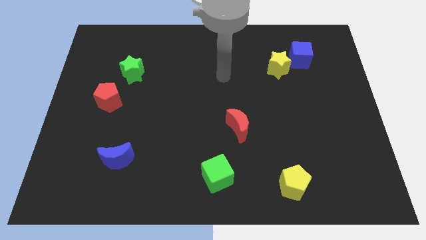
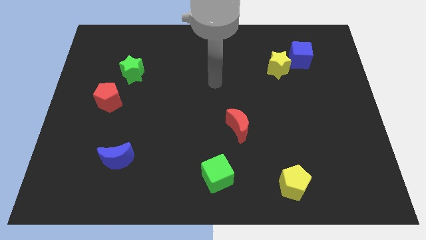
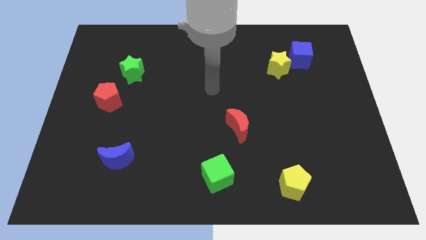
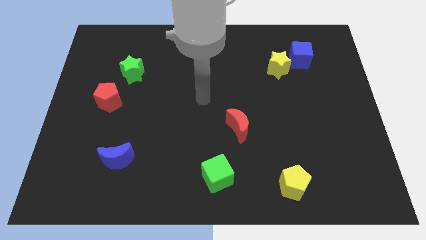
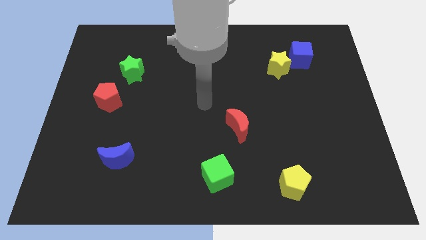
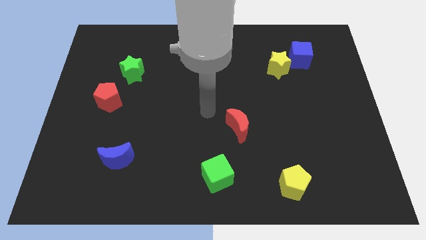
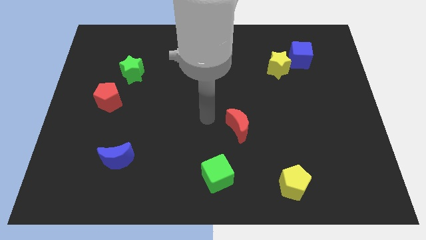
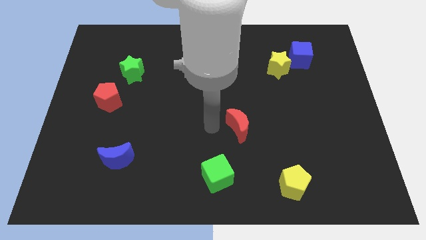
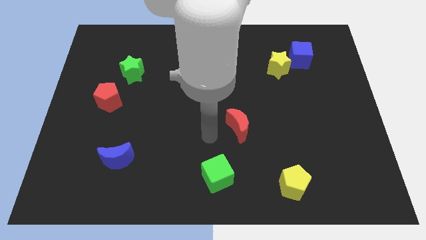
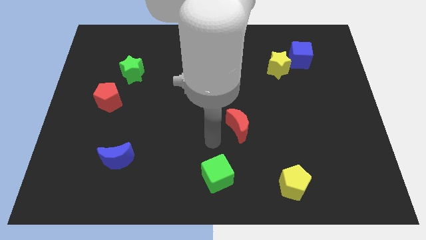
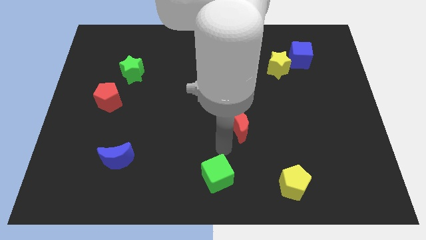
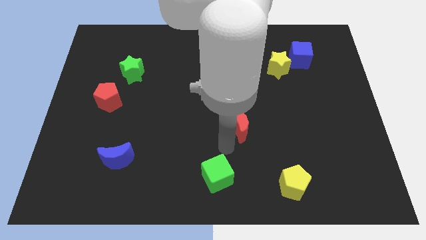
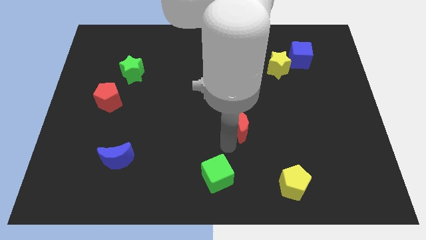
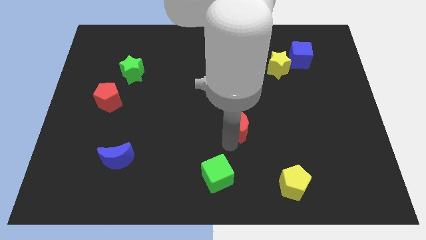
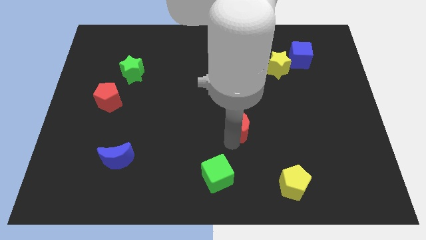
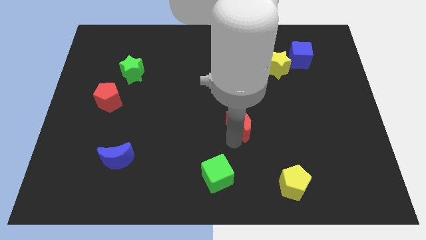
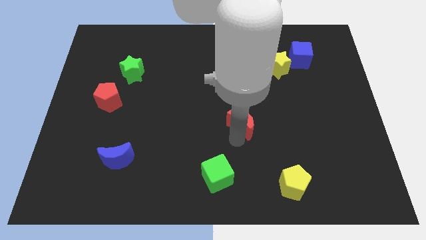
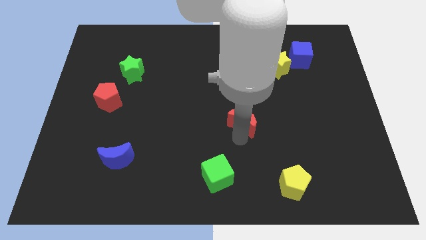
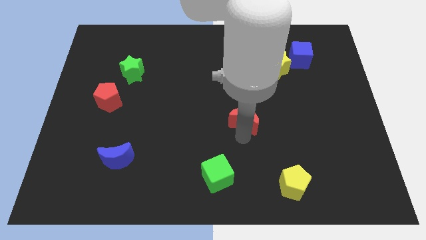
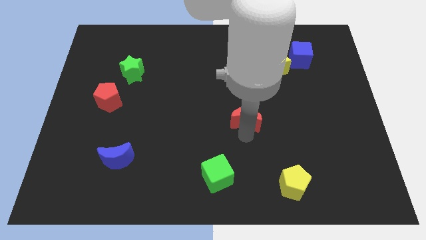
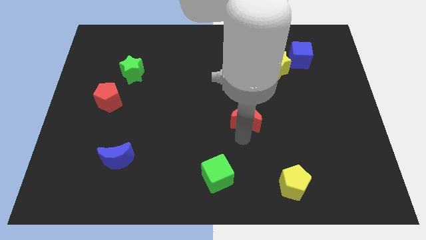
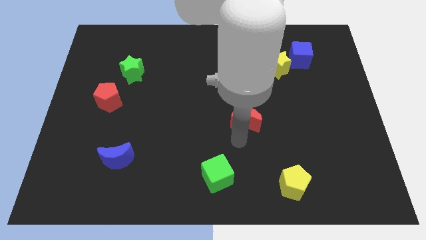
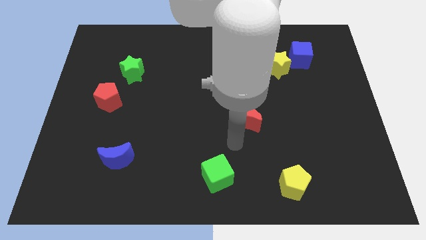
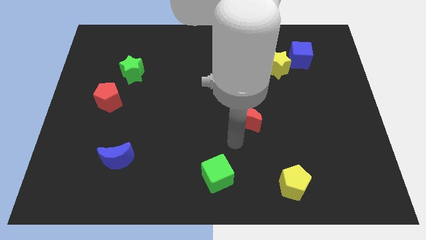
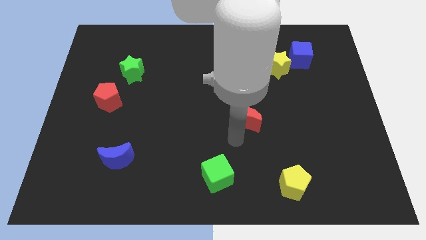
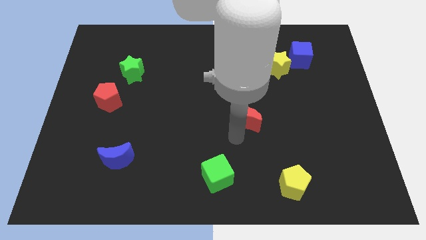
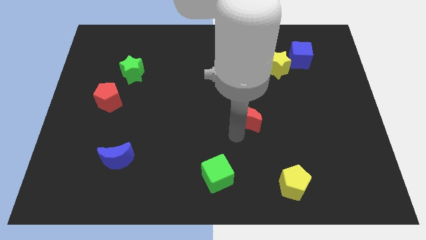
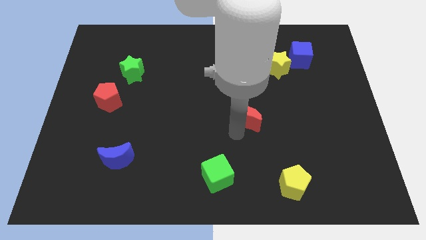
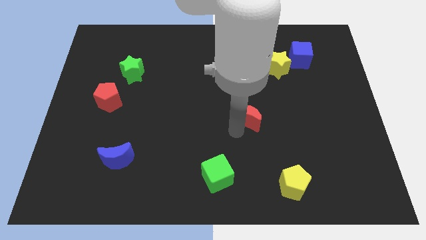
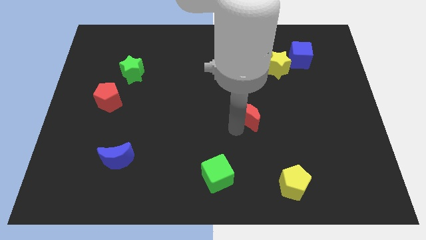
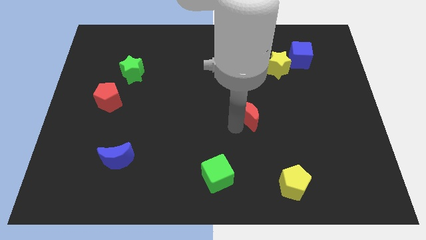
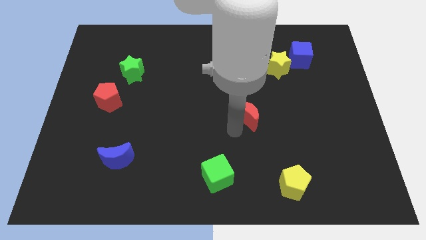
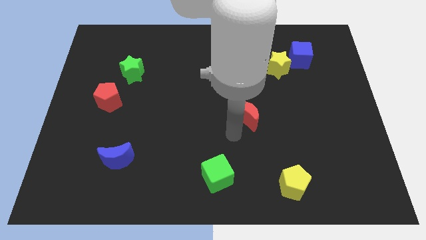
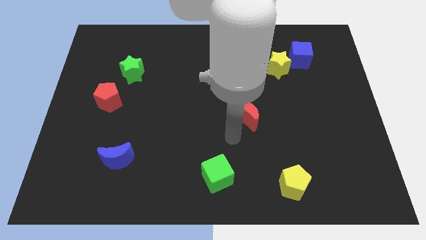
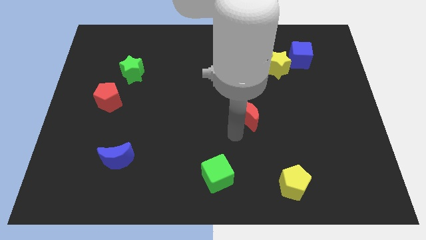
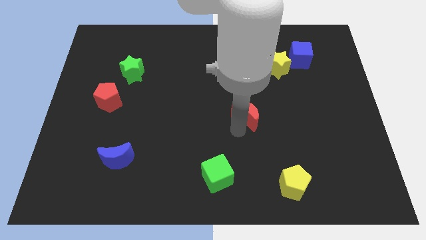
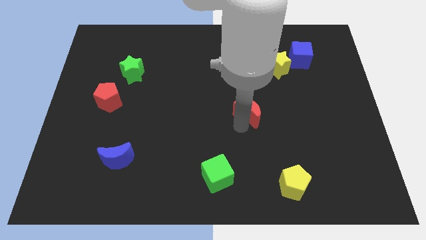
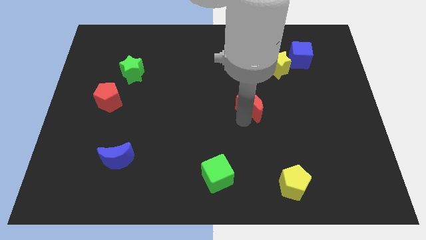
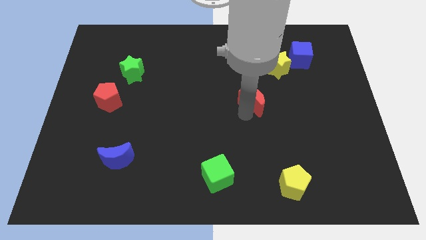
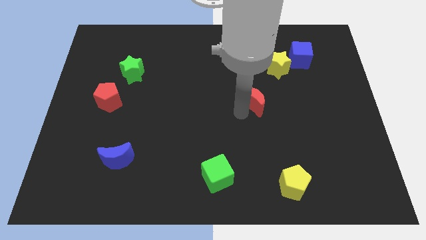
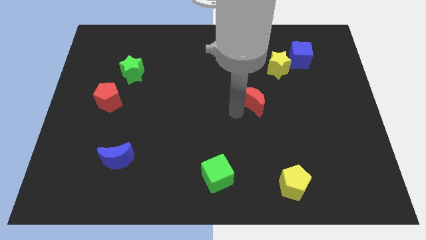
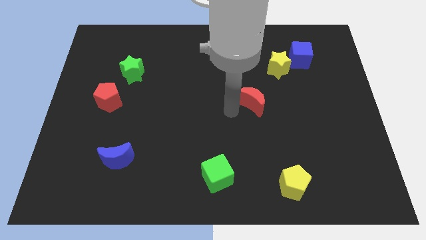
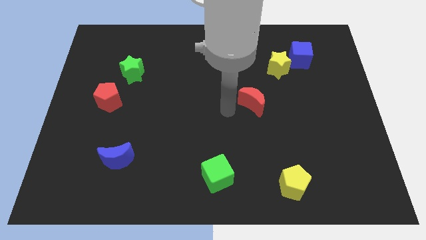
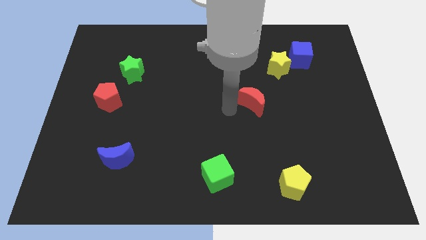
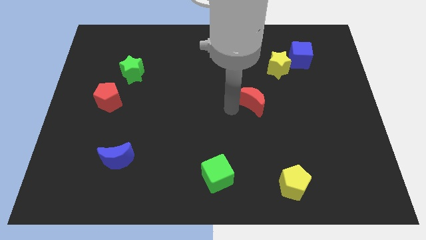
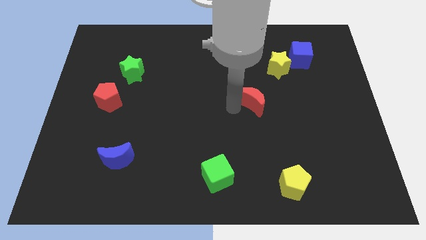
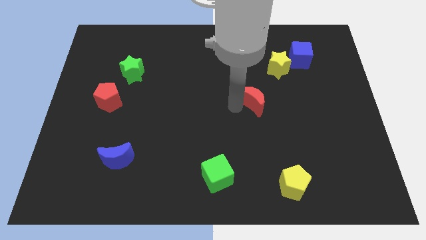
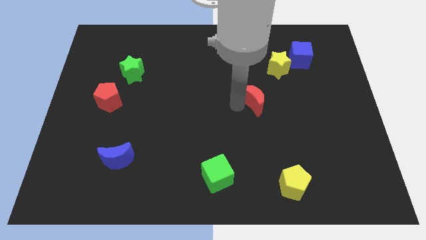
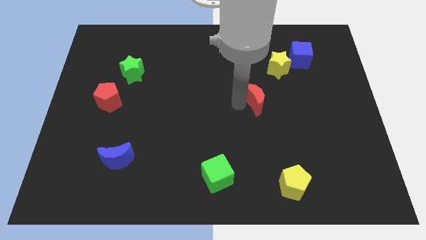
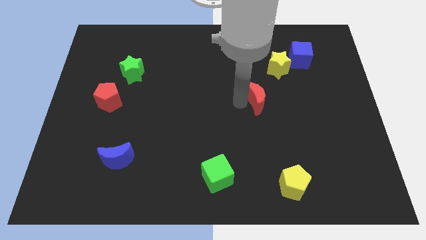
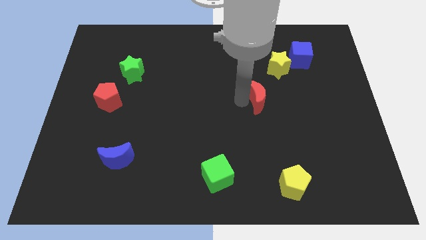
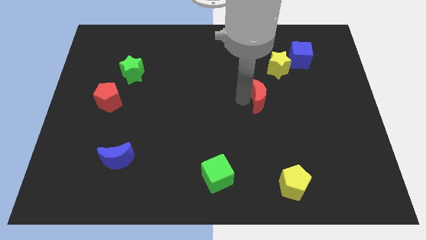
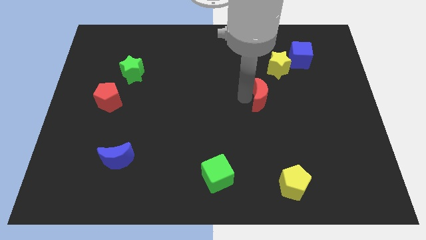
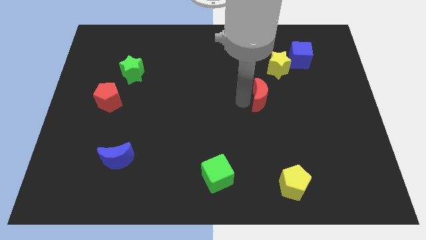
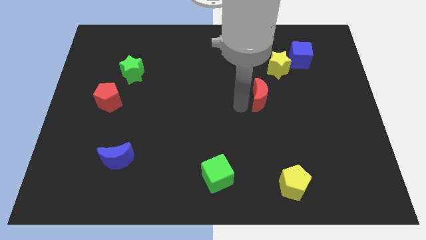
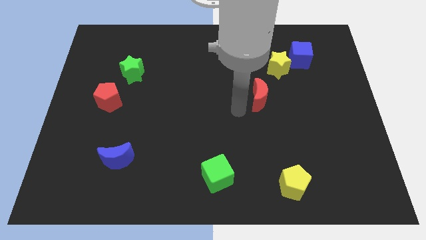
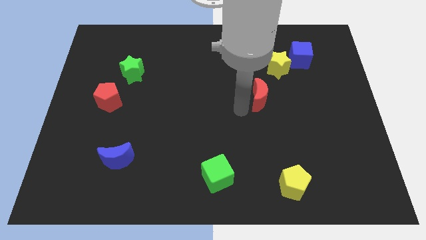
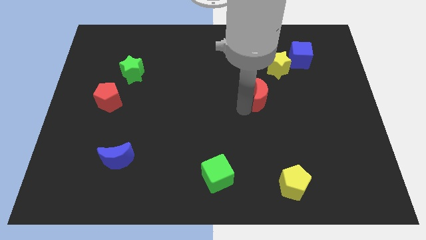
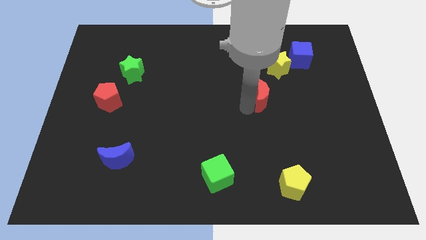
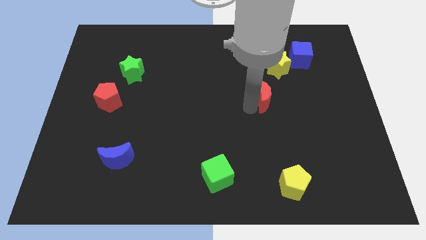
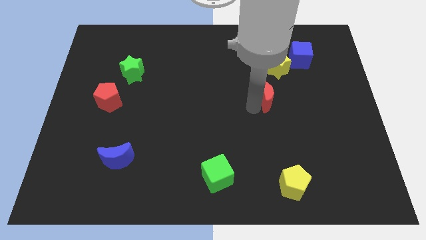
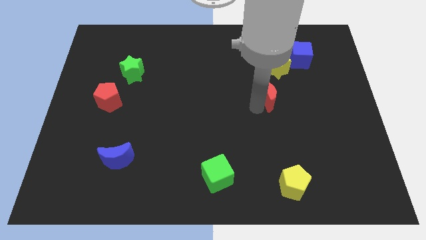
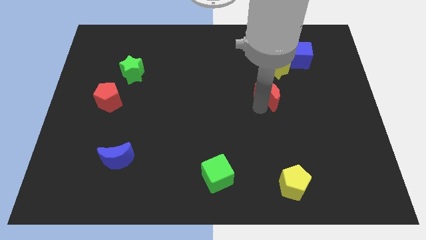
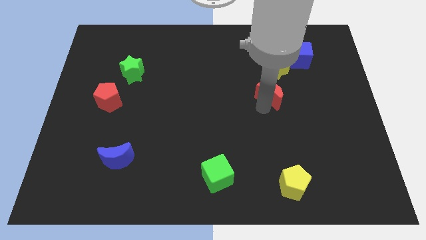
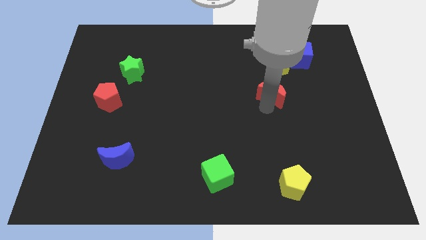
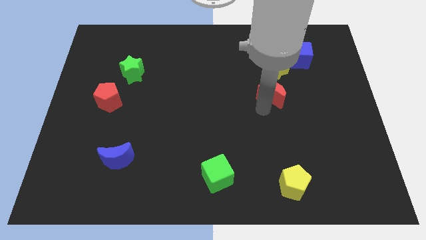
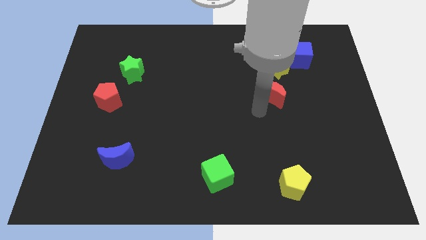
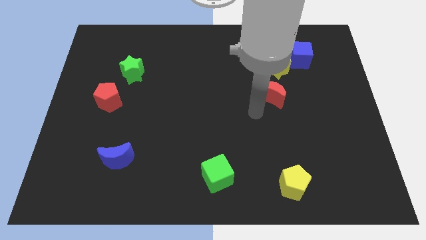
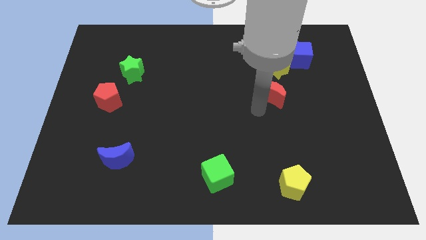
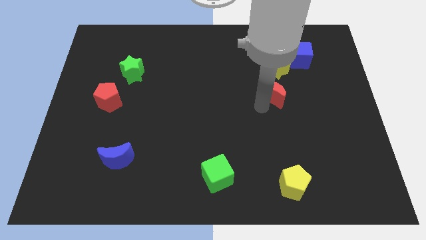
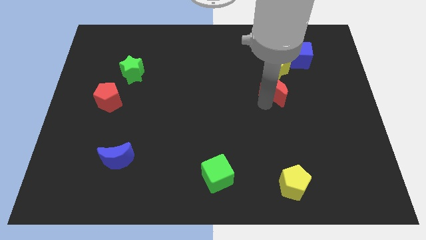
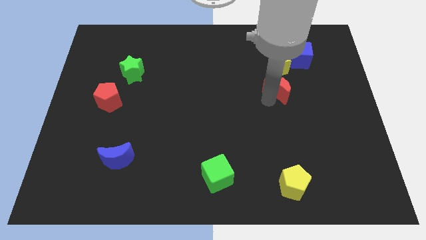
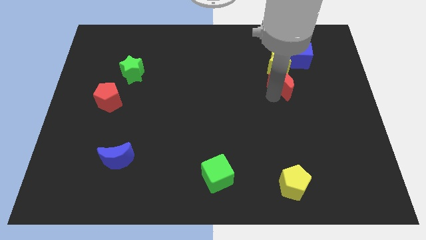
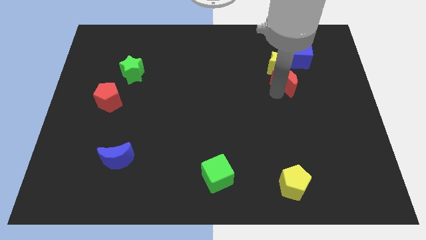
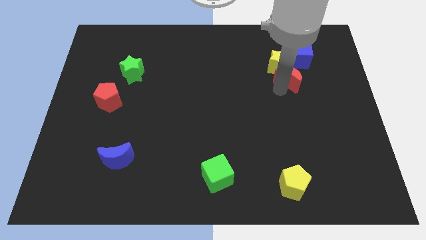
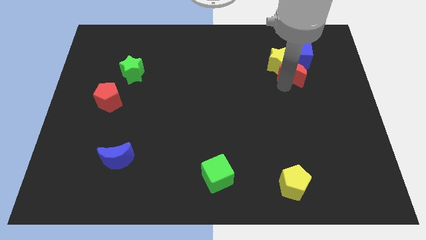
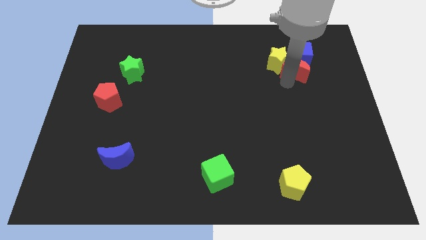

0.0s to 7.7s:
slide the red moon to the blue cube
